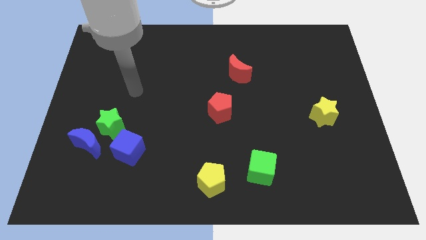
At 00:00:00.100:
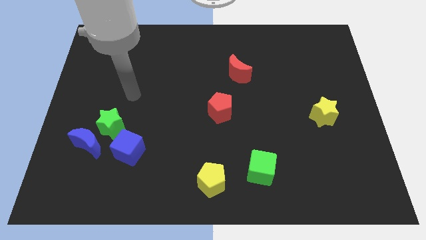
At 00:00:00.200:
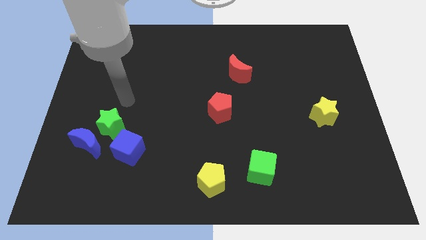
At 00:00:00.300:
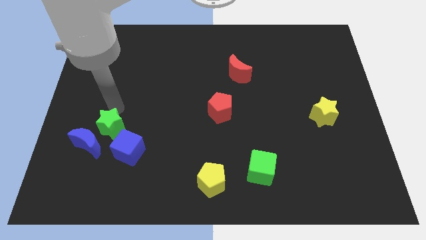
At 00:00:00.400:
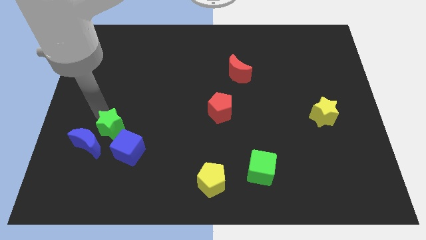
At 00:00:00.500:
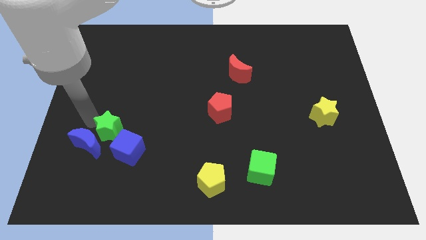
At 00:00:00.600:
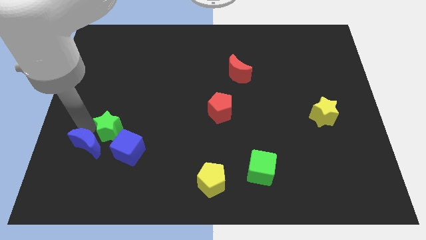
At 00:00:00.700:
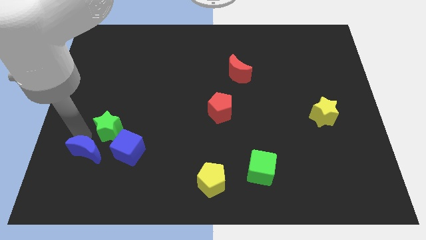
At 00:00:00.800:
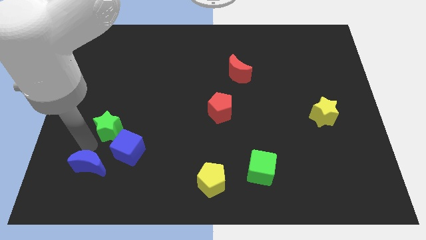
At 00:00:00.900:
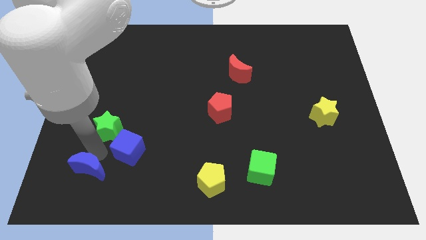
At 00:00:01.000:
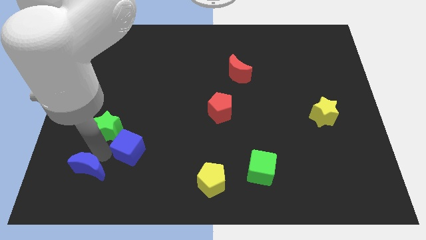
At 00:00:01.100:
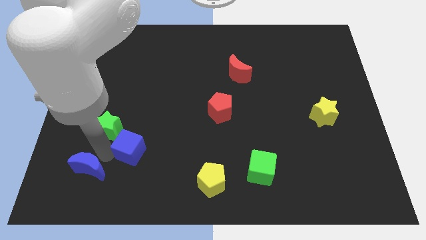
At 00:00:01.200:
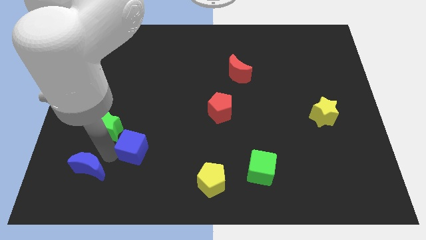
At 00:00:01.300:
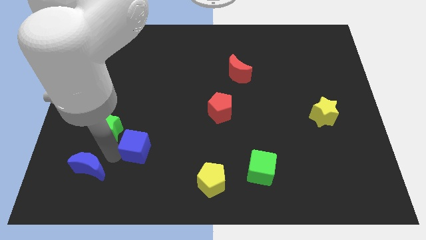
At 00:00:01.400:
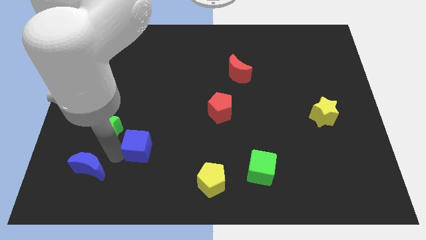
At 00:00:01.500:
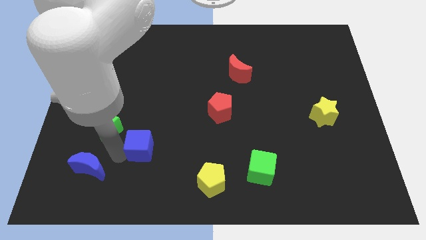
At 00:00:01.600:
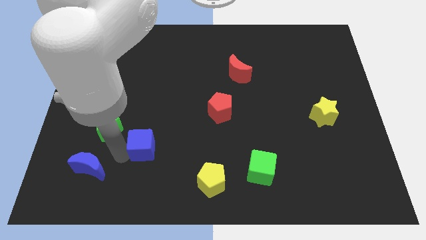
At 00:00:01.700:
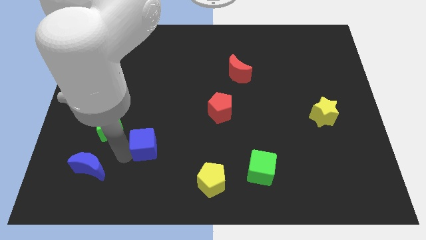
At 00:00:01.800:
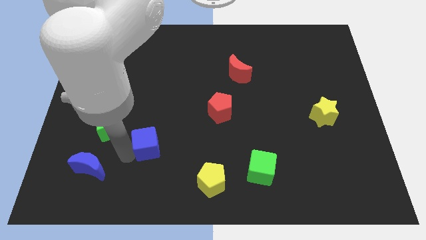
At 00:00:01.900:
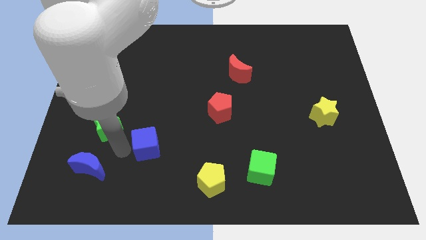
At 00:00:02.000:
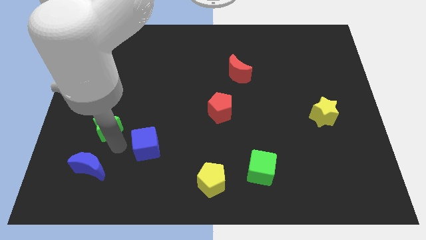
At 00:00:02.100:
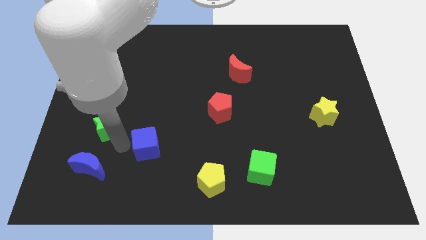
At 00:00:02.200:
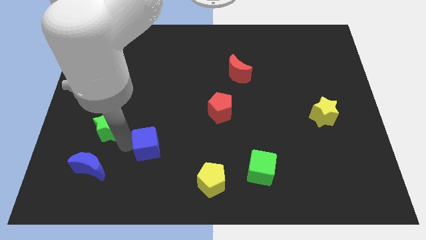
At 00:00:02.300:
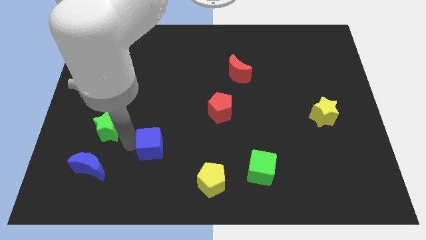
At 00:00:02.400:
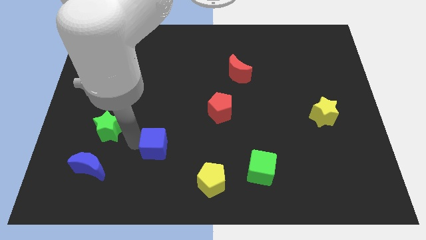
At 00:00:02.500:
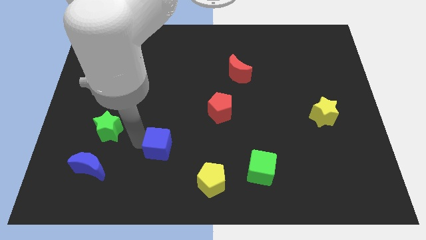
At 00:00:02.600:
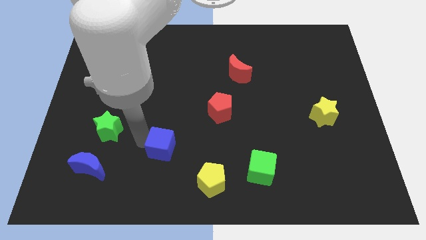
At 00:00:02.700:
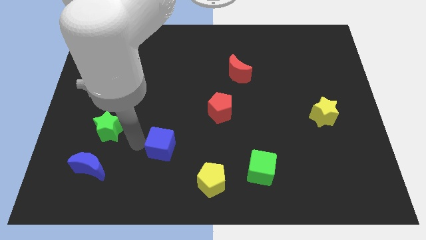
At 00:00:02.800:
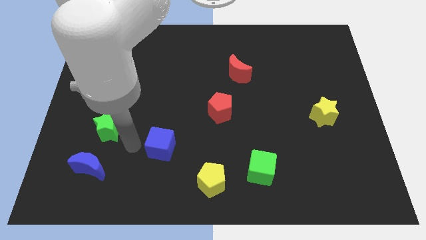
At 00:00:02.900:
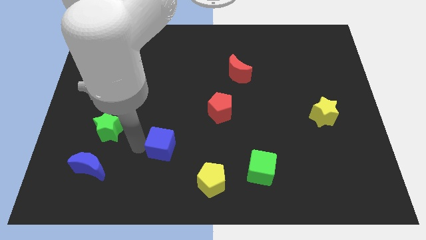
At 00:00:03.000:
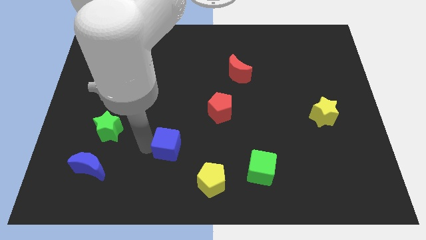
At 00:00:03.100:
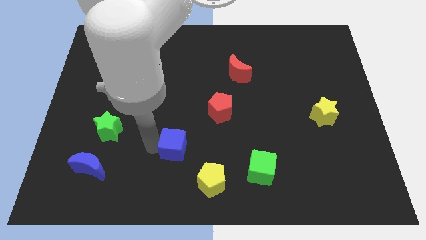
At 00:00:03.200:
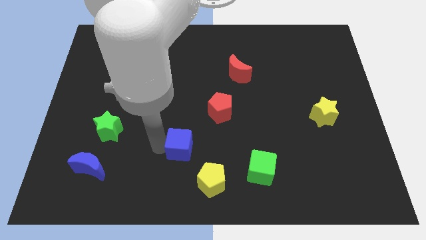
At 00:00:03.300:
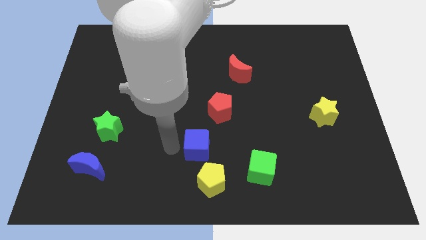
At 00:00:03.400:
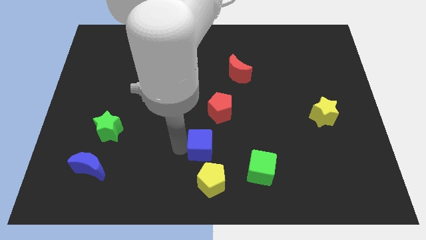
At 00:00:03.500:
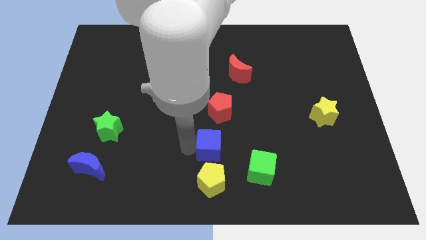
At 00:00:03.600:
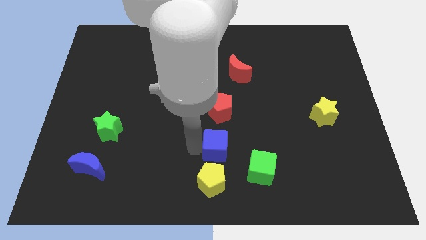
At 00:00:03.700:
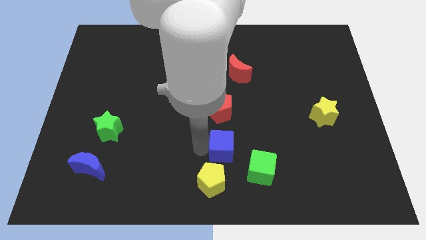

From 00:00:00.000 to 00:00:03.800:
slide the blue cube to the right

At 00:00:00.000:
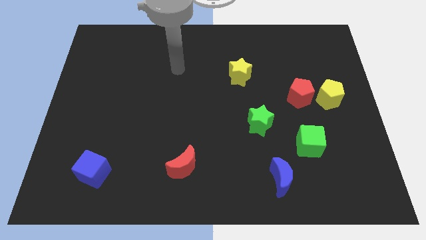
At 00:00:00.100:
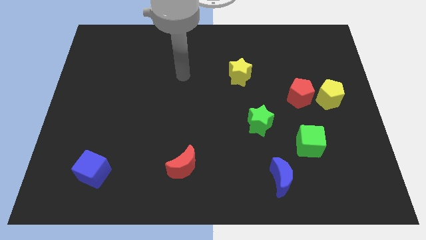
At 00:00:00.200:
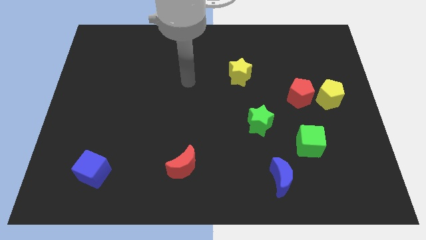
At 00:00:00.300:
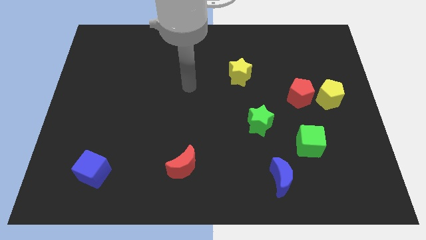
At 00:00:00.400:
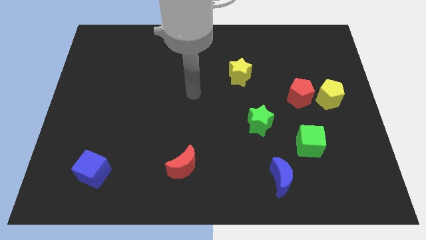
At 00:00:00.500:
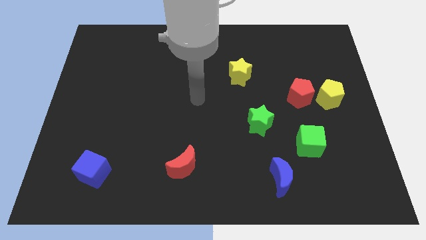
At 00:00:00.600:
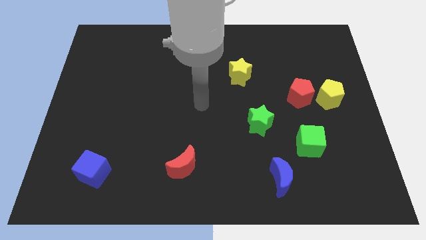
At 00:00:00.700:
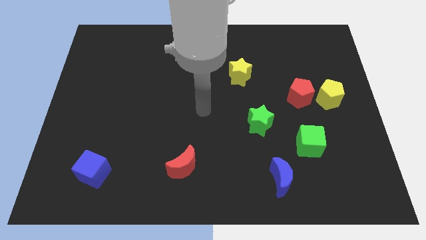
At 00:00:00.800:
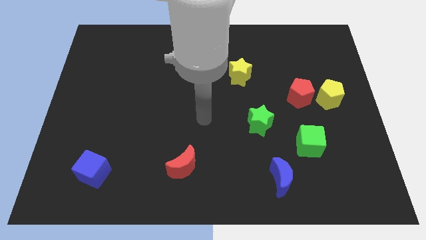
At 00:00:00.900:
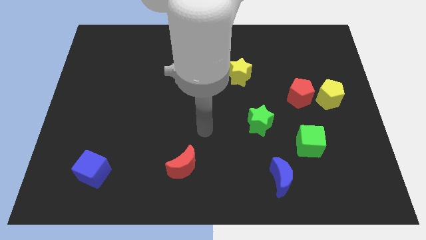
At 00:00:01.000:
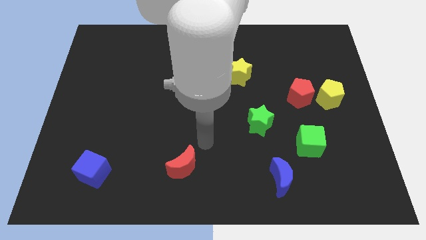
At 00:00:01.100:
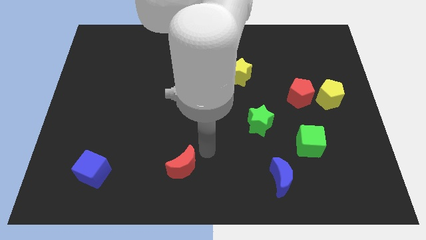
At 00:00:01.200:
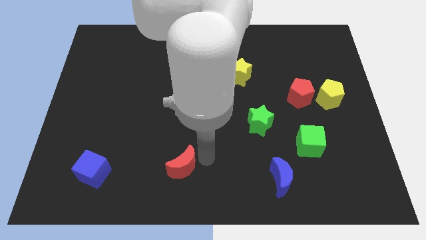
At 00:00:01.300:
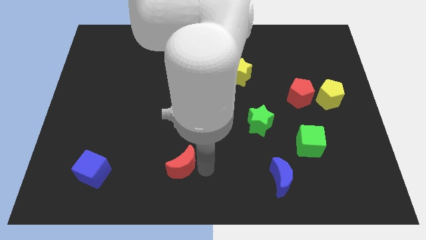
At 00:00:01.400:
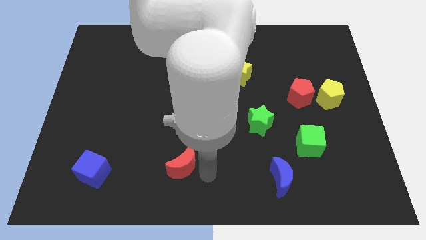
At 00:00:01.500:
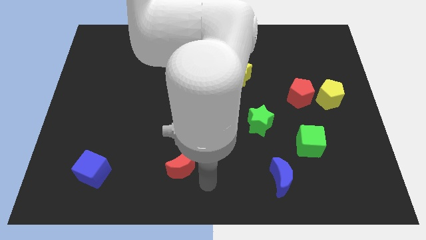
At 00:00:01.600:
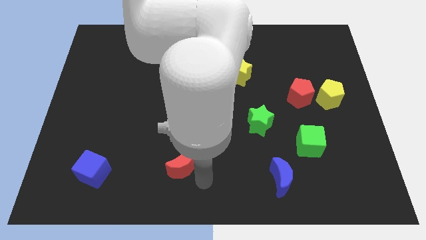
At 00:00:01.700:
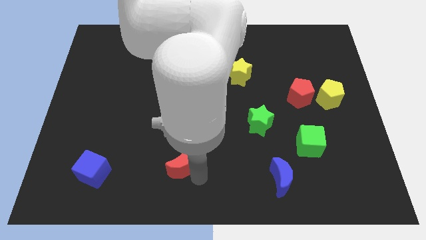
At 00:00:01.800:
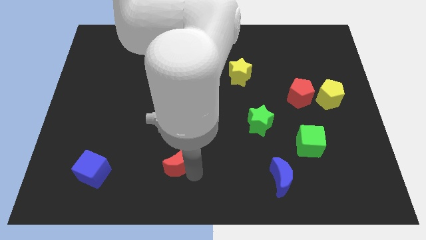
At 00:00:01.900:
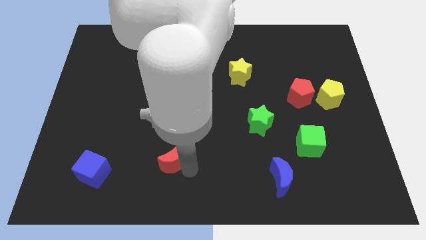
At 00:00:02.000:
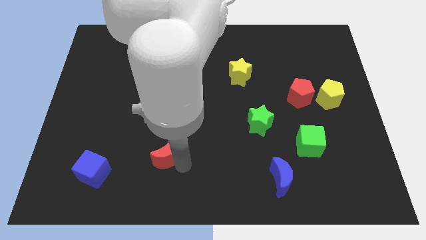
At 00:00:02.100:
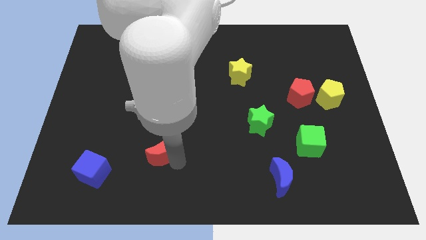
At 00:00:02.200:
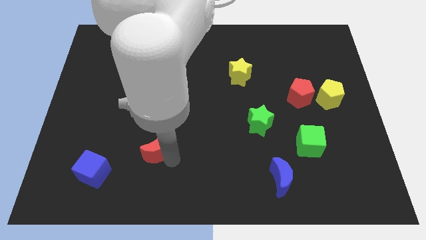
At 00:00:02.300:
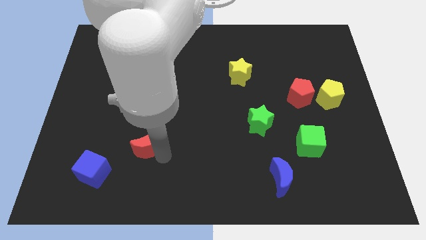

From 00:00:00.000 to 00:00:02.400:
move the red moon somewhat up and left diagonally

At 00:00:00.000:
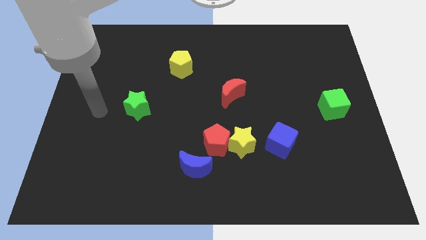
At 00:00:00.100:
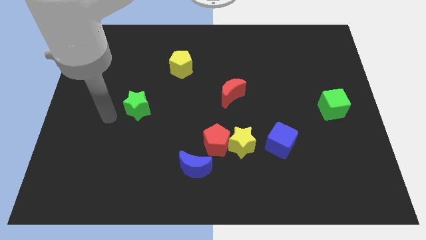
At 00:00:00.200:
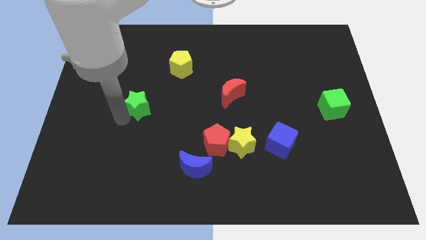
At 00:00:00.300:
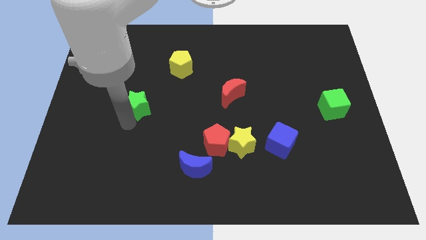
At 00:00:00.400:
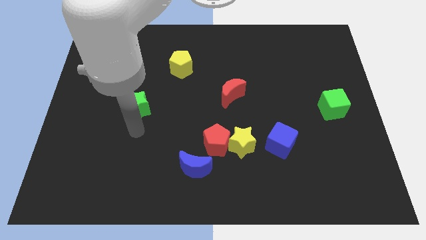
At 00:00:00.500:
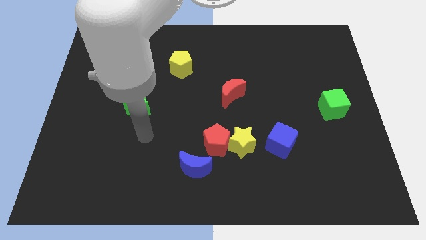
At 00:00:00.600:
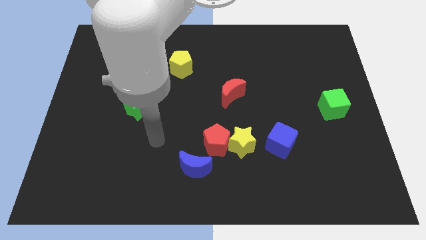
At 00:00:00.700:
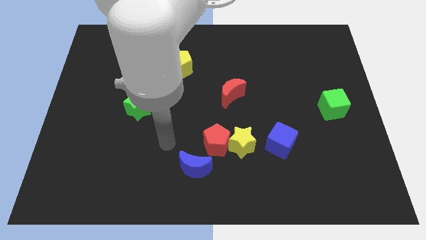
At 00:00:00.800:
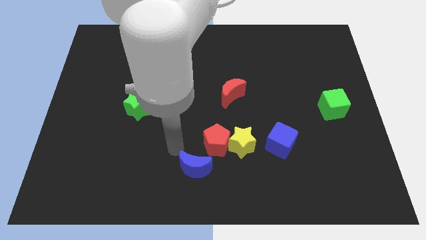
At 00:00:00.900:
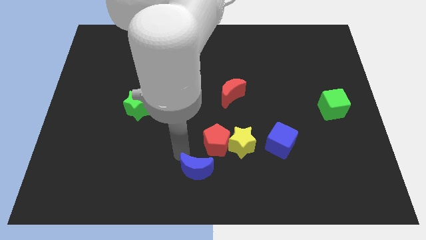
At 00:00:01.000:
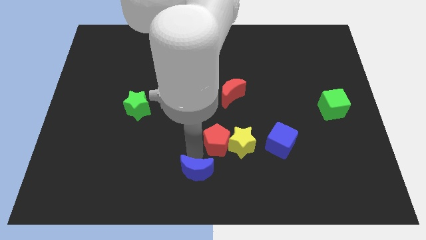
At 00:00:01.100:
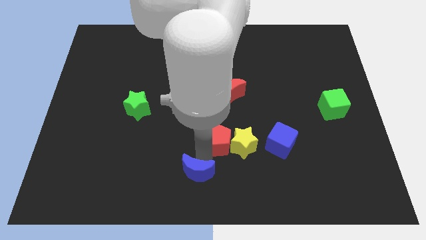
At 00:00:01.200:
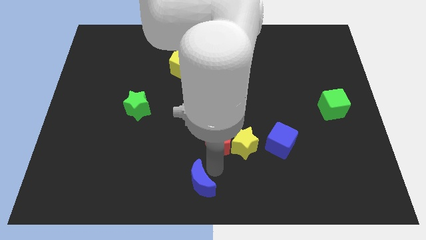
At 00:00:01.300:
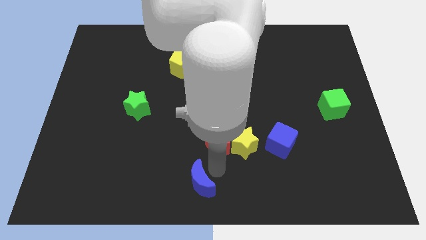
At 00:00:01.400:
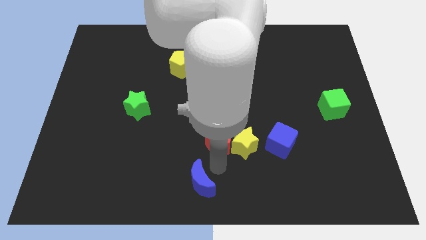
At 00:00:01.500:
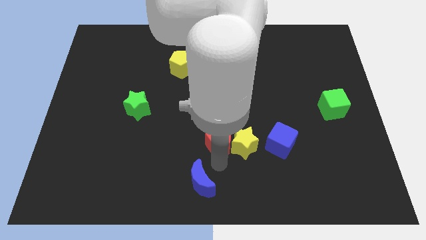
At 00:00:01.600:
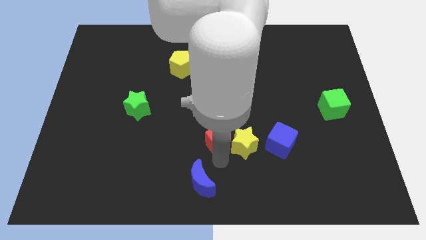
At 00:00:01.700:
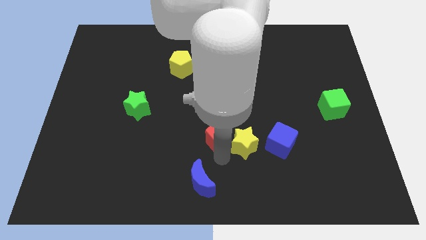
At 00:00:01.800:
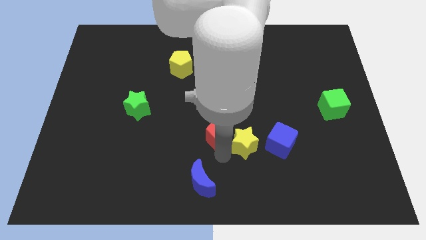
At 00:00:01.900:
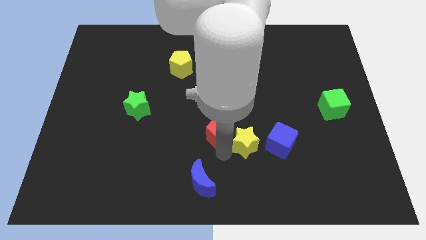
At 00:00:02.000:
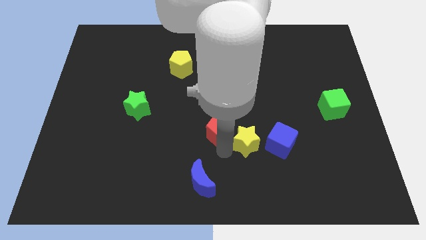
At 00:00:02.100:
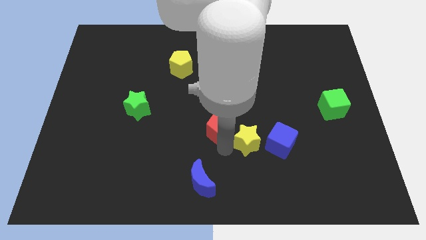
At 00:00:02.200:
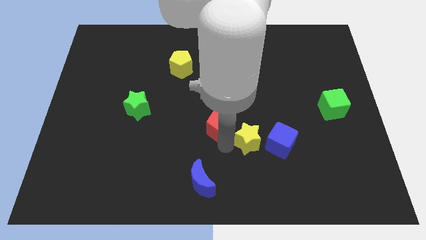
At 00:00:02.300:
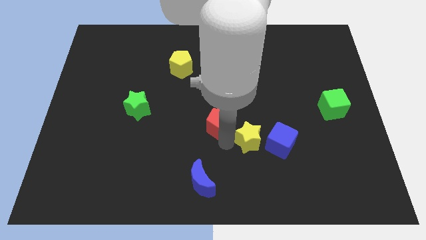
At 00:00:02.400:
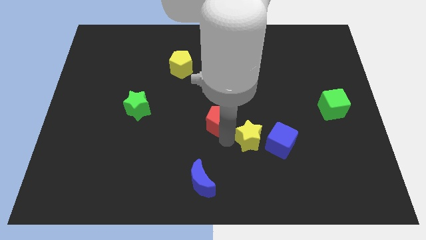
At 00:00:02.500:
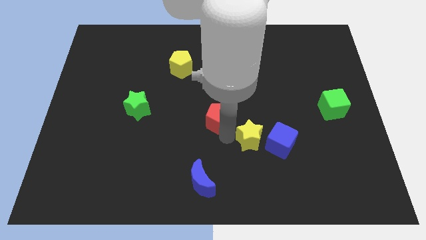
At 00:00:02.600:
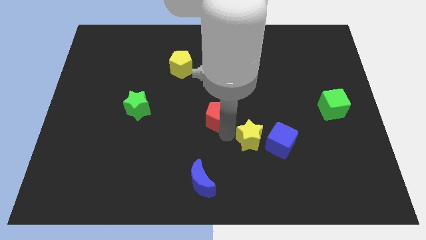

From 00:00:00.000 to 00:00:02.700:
slide the red pentagon slightly up
